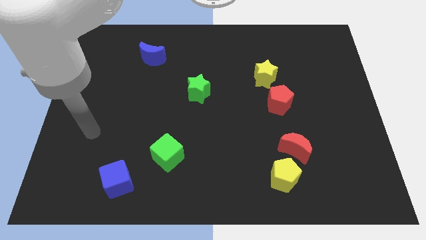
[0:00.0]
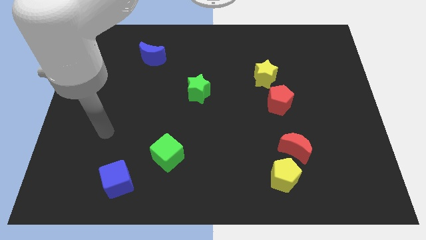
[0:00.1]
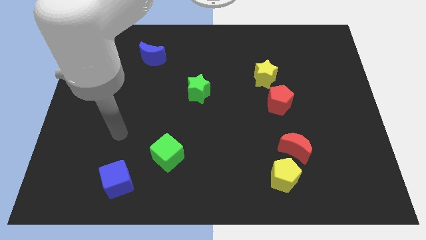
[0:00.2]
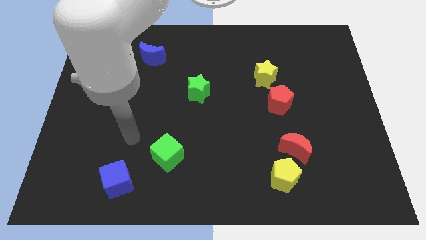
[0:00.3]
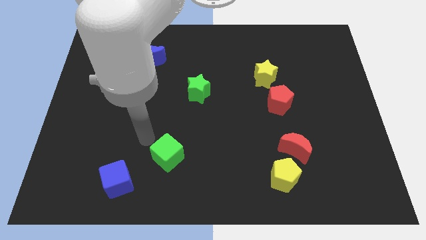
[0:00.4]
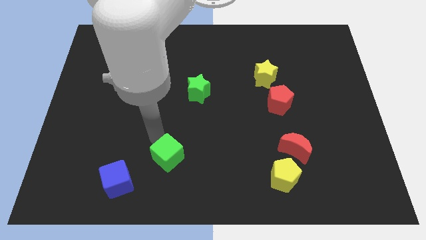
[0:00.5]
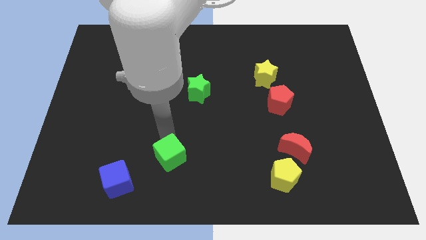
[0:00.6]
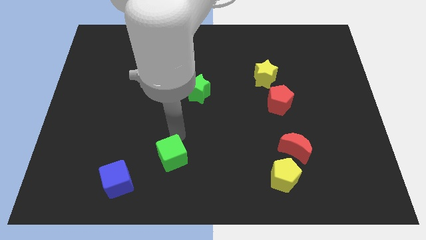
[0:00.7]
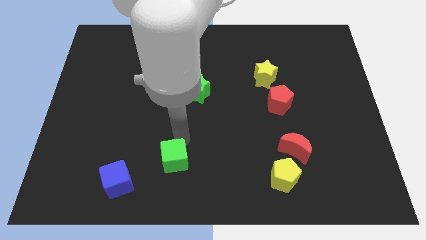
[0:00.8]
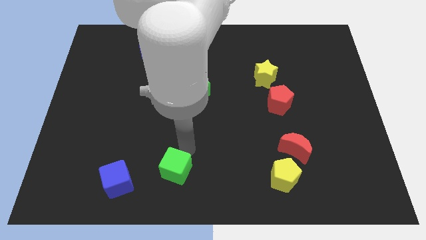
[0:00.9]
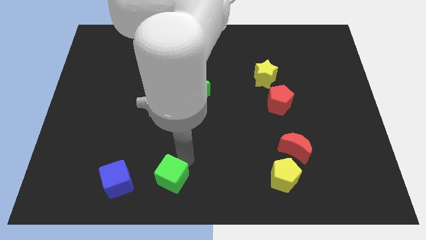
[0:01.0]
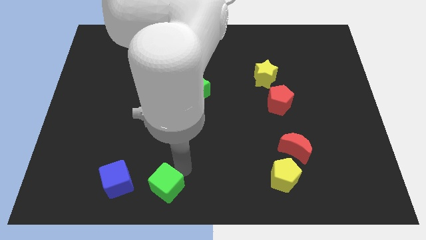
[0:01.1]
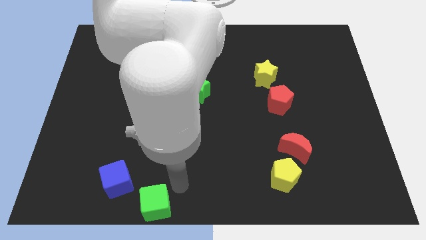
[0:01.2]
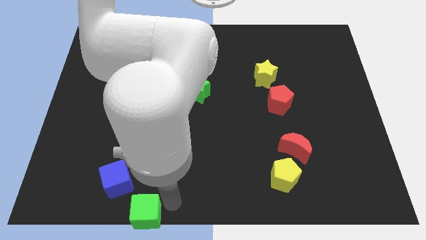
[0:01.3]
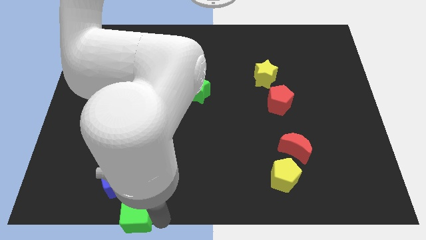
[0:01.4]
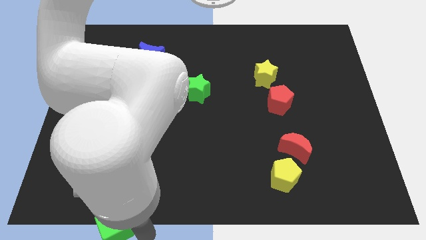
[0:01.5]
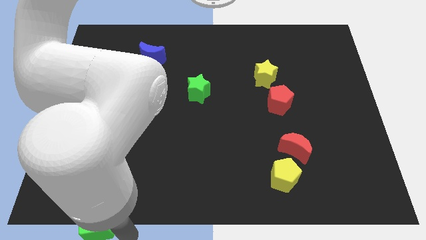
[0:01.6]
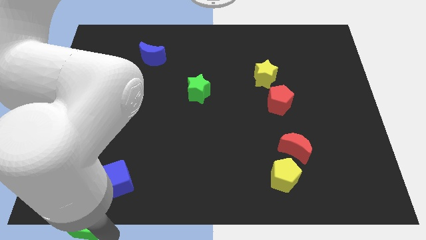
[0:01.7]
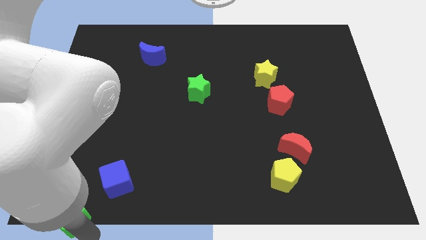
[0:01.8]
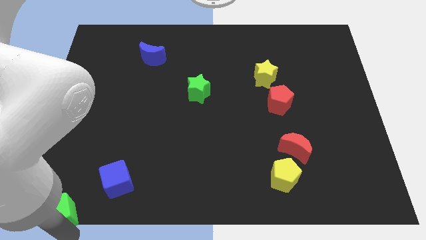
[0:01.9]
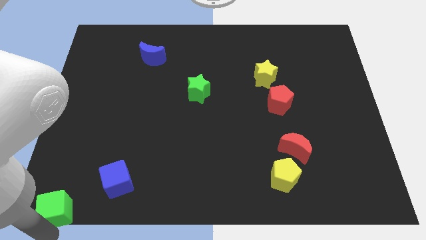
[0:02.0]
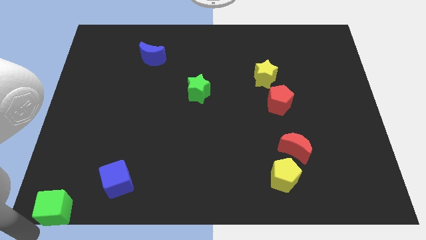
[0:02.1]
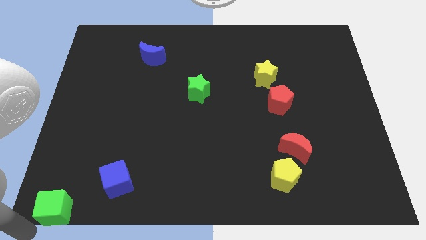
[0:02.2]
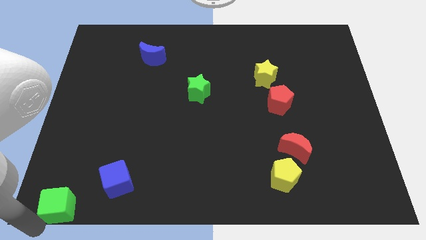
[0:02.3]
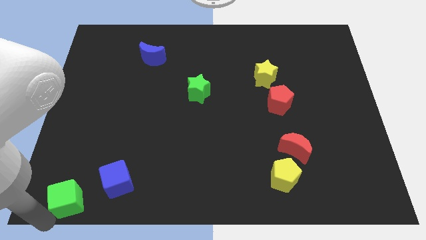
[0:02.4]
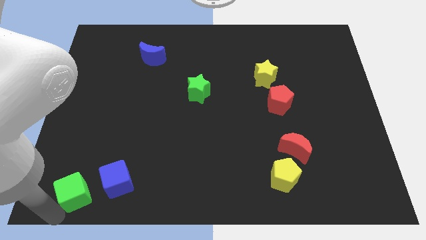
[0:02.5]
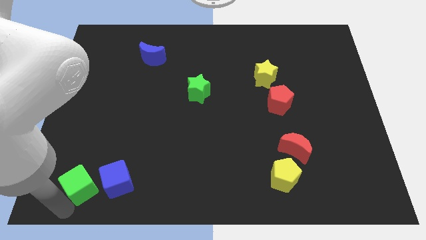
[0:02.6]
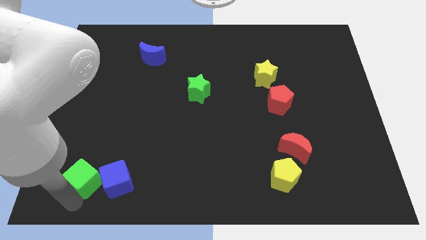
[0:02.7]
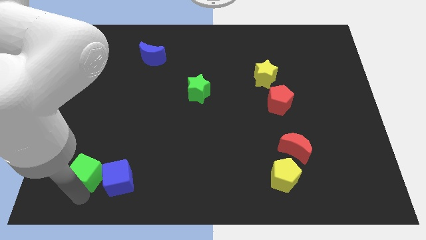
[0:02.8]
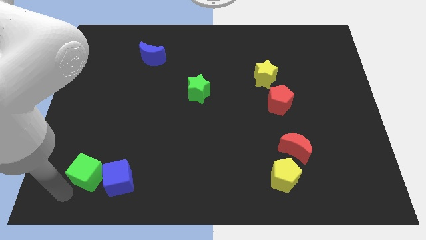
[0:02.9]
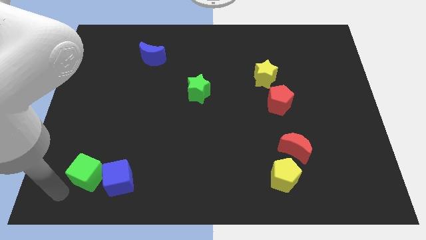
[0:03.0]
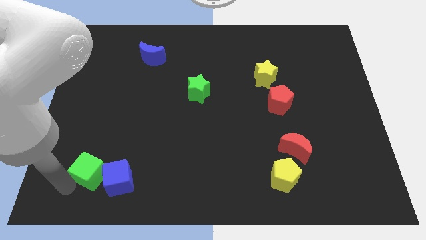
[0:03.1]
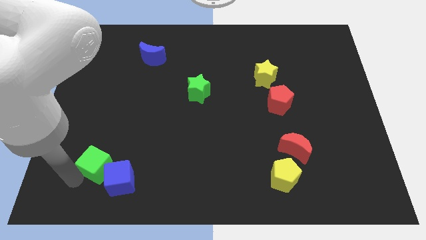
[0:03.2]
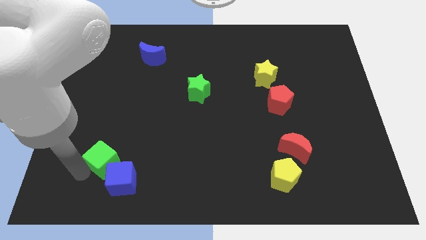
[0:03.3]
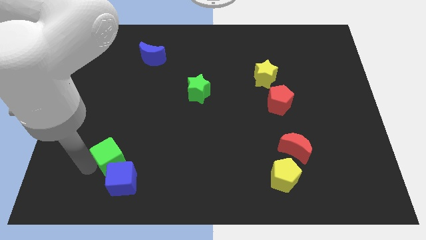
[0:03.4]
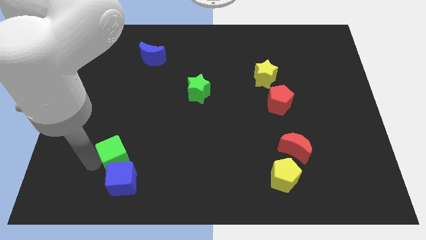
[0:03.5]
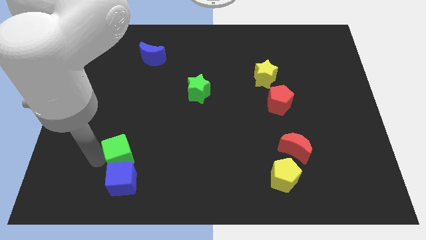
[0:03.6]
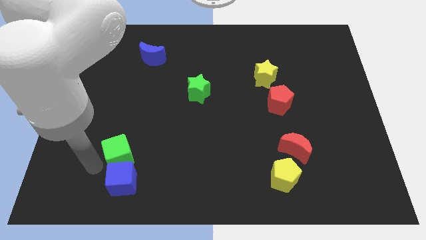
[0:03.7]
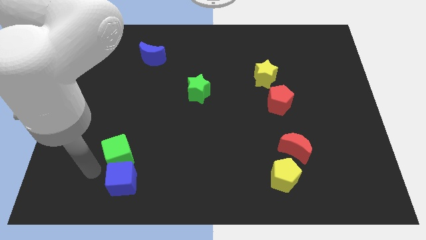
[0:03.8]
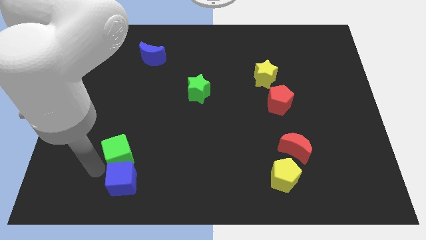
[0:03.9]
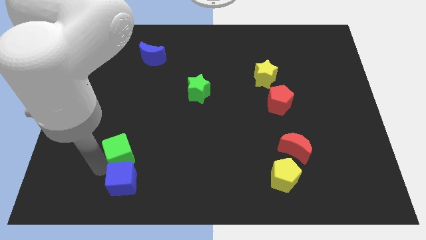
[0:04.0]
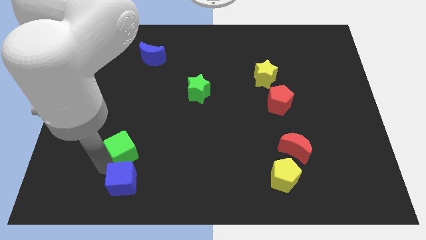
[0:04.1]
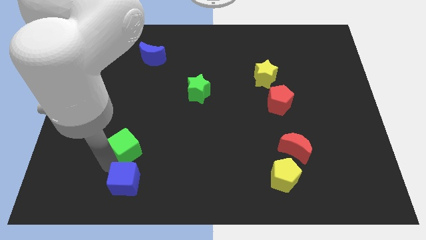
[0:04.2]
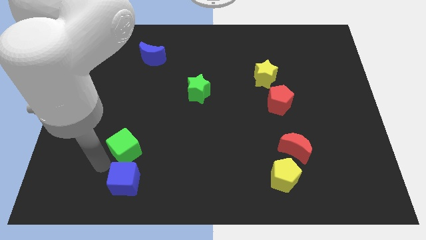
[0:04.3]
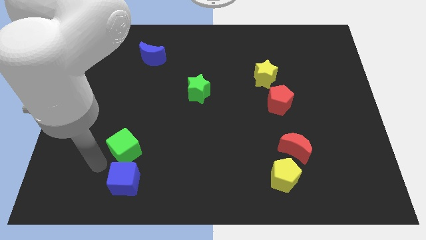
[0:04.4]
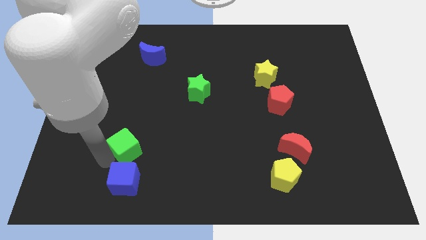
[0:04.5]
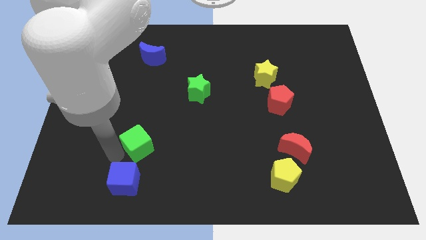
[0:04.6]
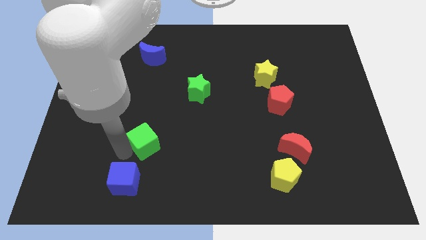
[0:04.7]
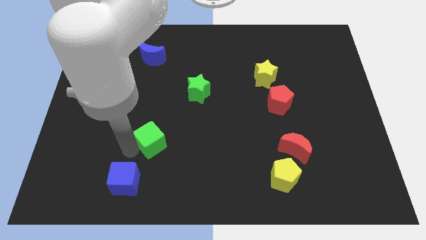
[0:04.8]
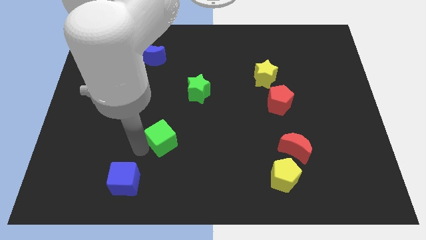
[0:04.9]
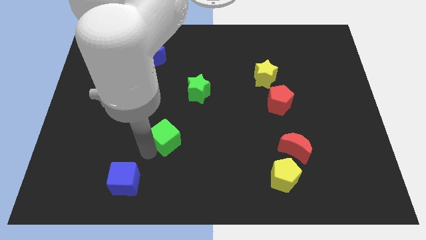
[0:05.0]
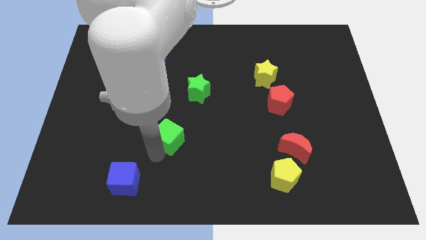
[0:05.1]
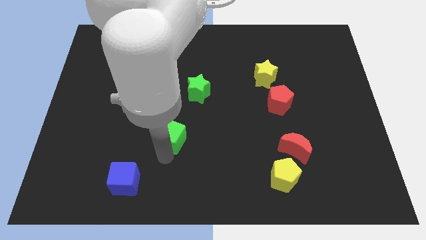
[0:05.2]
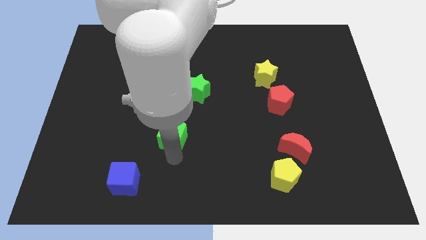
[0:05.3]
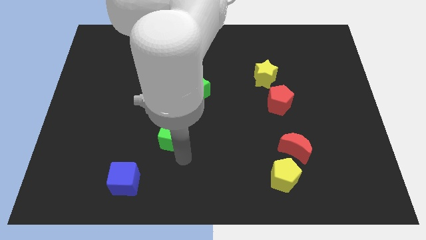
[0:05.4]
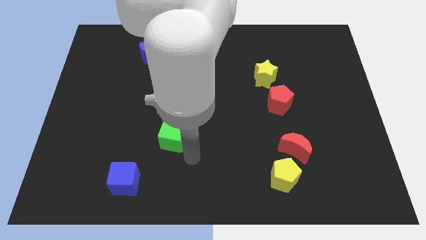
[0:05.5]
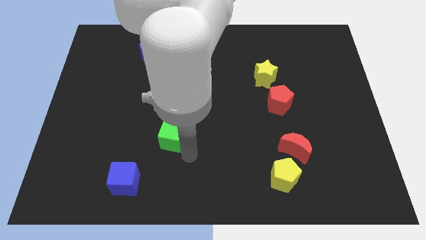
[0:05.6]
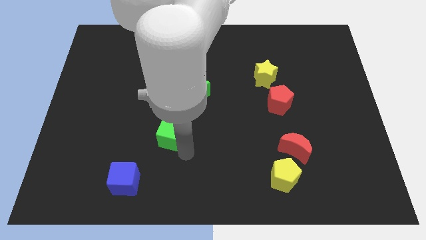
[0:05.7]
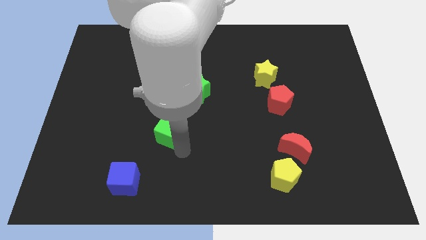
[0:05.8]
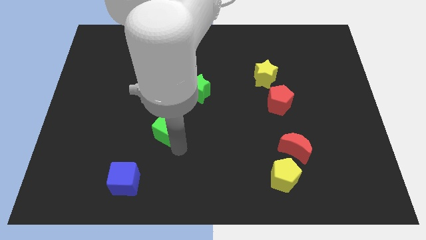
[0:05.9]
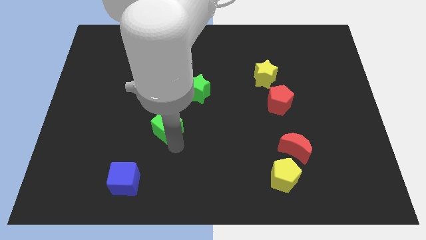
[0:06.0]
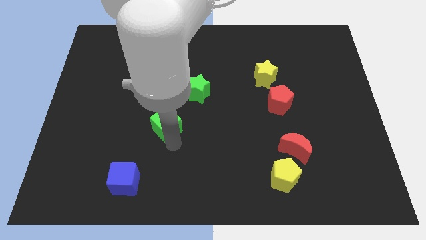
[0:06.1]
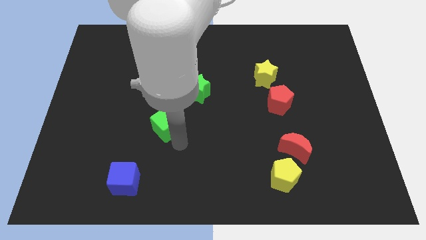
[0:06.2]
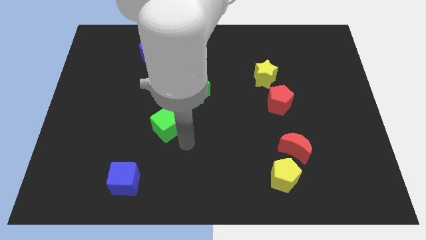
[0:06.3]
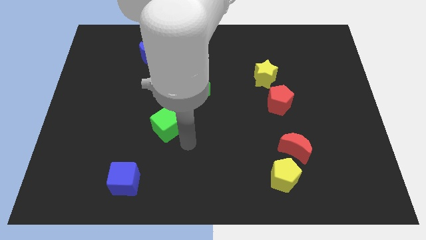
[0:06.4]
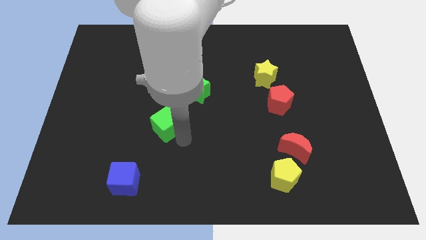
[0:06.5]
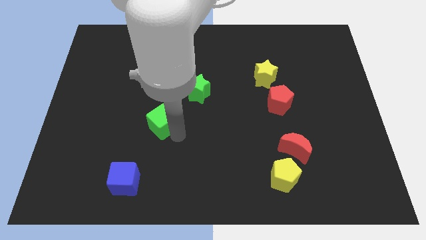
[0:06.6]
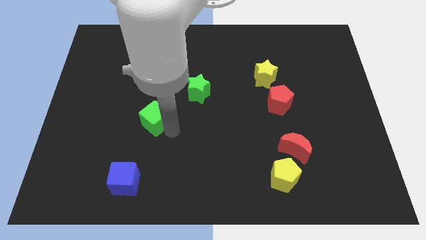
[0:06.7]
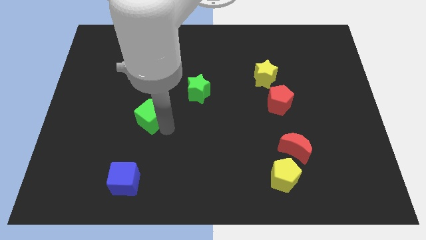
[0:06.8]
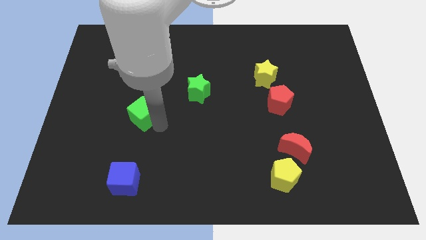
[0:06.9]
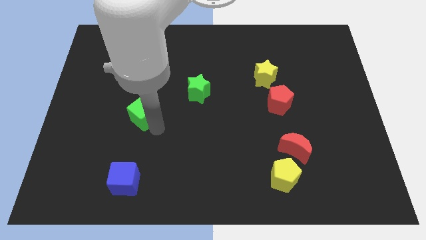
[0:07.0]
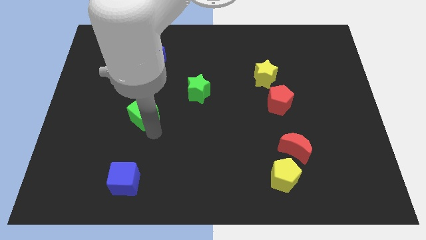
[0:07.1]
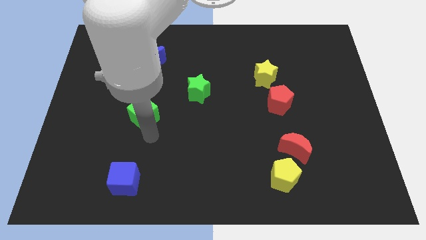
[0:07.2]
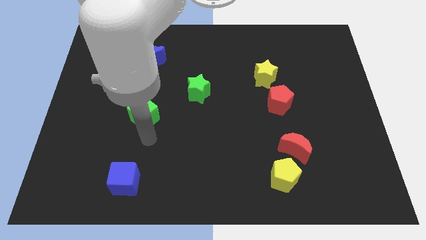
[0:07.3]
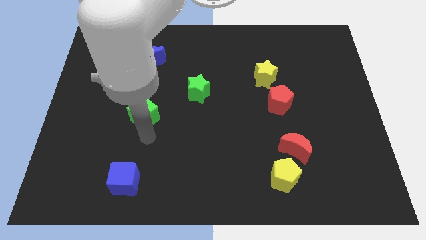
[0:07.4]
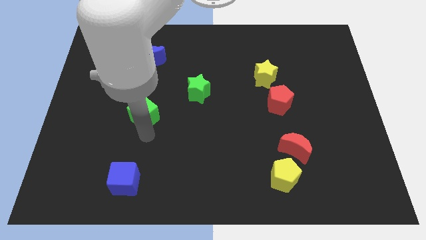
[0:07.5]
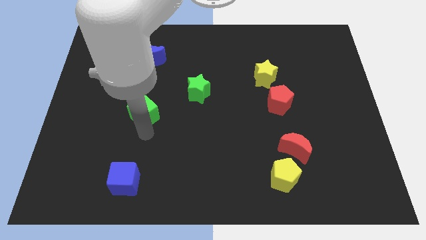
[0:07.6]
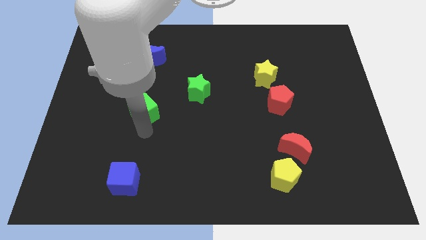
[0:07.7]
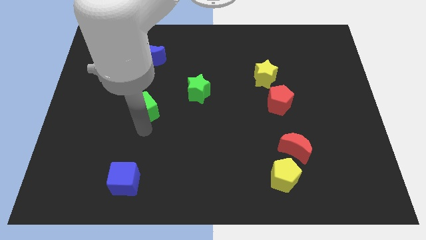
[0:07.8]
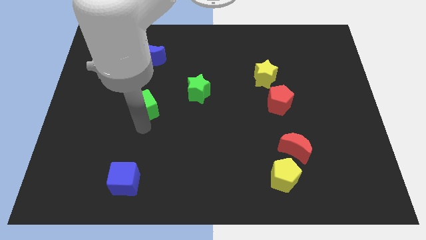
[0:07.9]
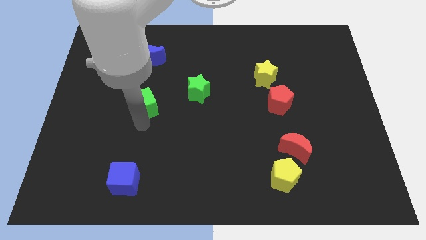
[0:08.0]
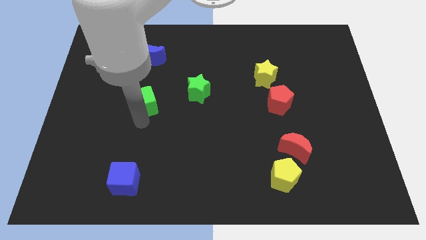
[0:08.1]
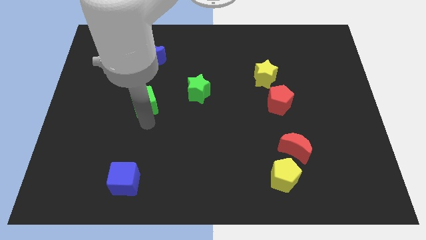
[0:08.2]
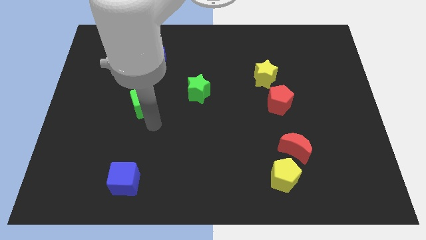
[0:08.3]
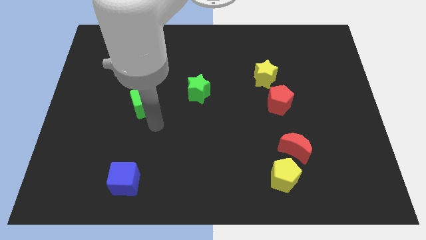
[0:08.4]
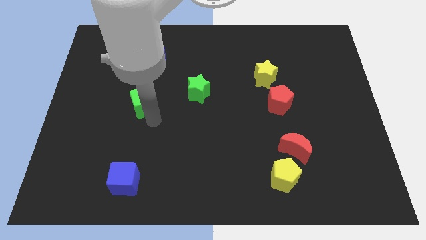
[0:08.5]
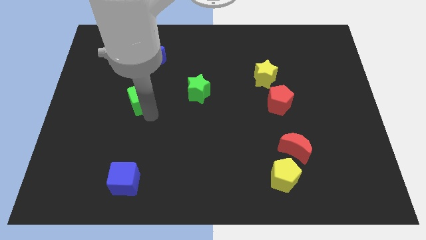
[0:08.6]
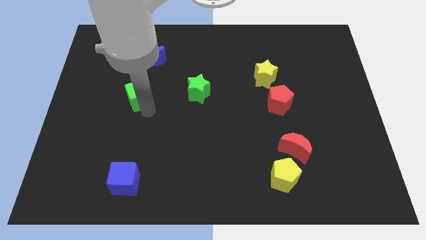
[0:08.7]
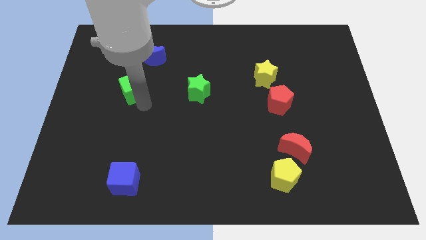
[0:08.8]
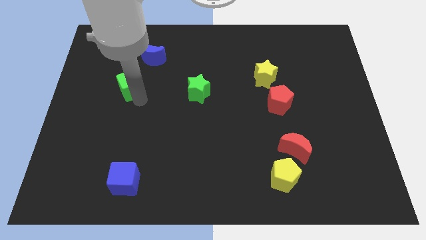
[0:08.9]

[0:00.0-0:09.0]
put the green cube diagonally down and to the left of the blue moon
